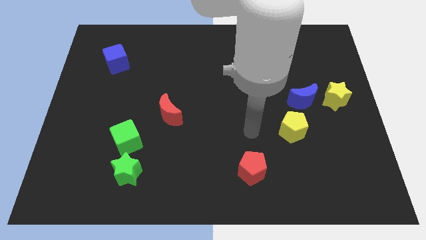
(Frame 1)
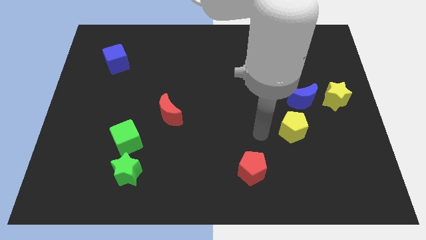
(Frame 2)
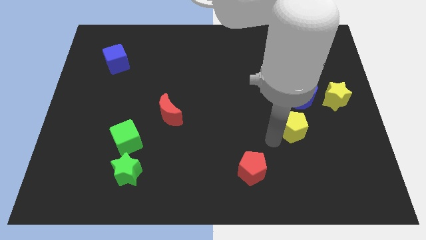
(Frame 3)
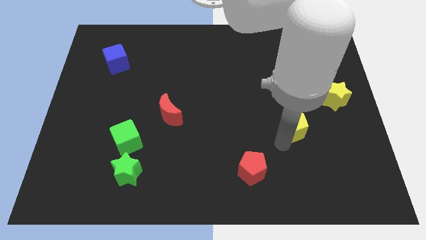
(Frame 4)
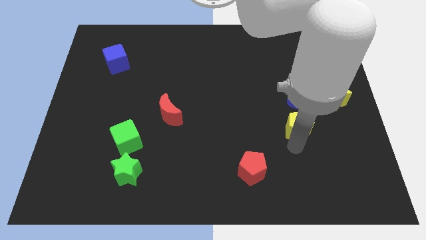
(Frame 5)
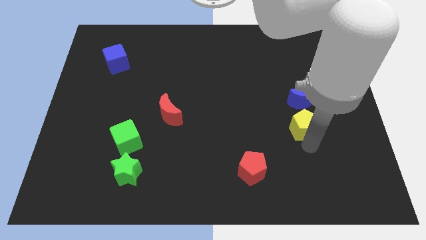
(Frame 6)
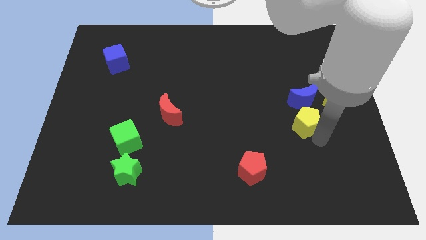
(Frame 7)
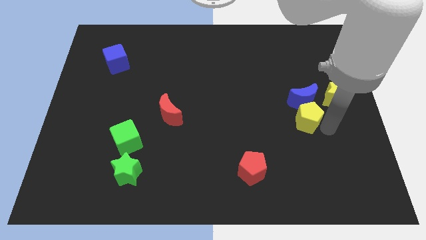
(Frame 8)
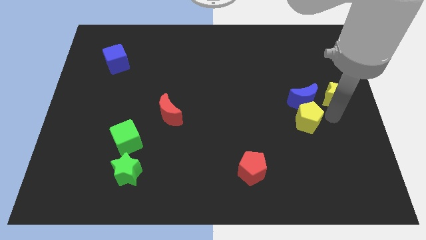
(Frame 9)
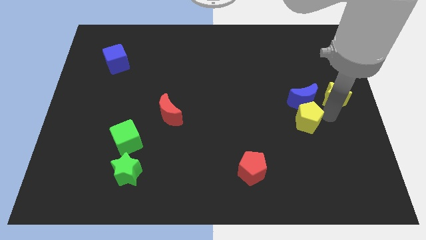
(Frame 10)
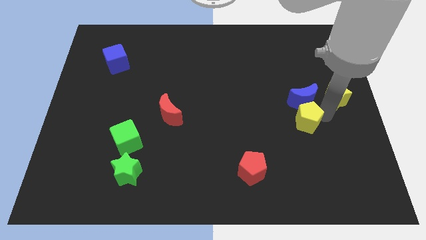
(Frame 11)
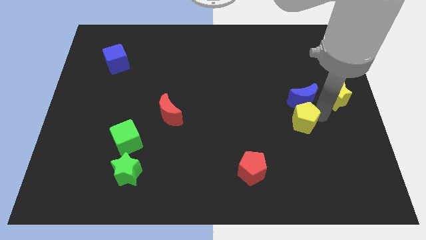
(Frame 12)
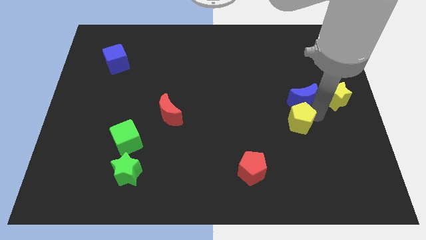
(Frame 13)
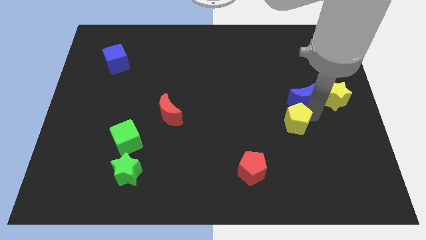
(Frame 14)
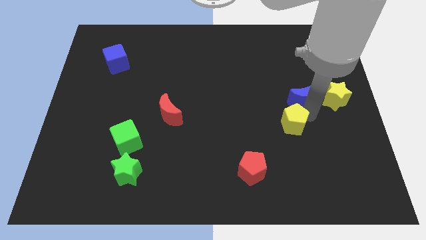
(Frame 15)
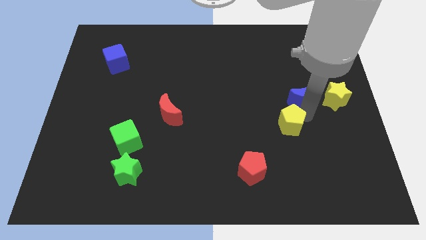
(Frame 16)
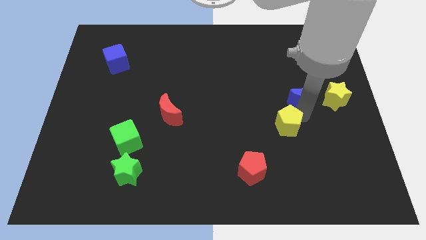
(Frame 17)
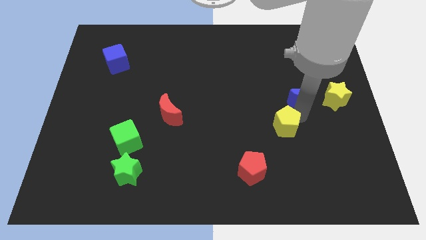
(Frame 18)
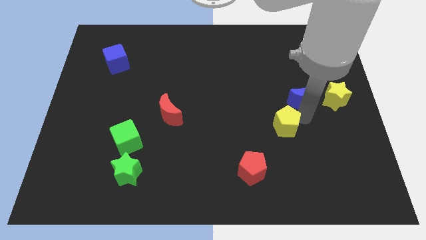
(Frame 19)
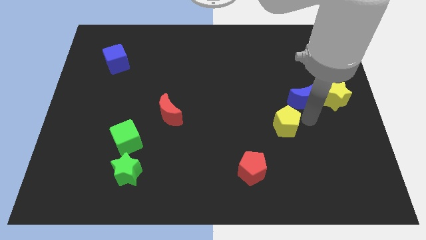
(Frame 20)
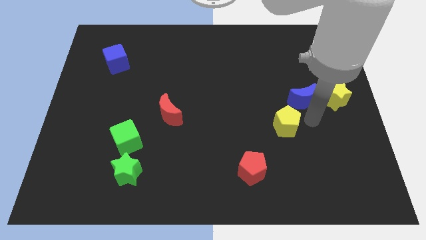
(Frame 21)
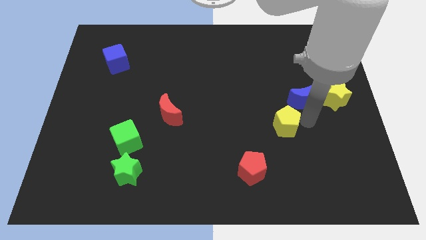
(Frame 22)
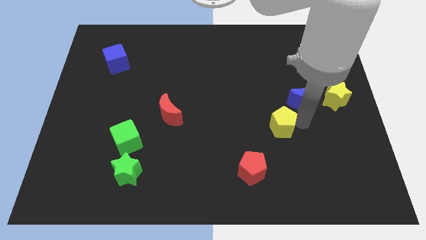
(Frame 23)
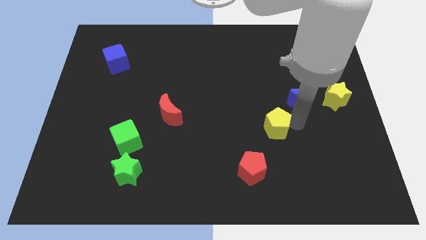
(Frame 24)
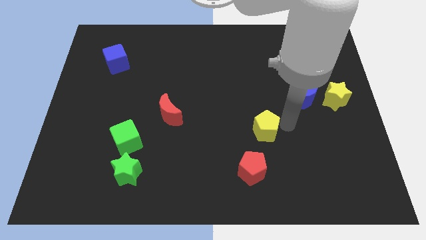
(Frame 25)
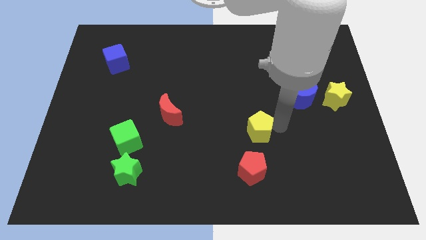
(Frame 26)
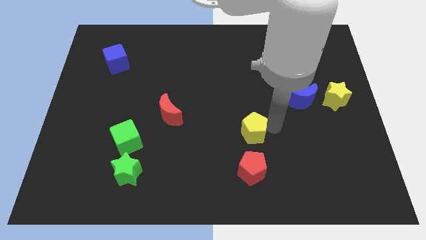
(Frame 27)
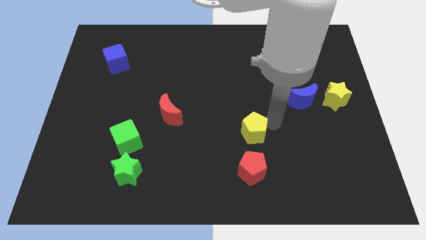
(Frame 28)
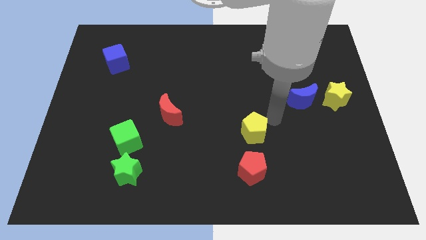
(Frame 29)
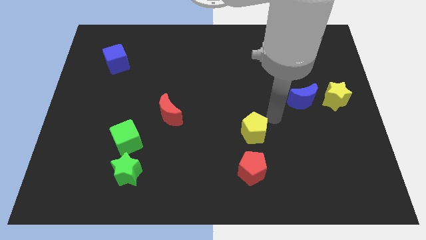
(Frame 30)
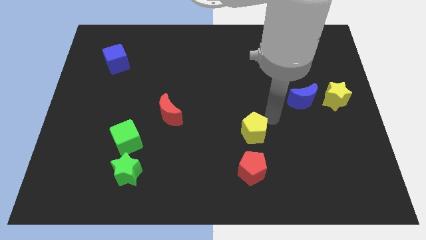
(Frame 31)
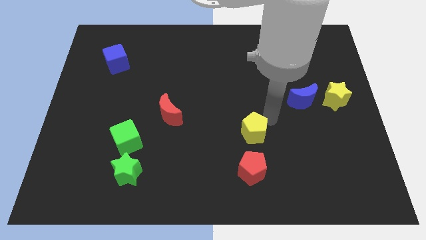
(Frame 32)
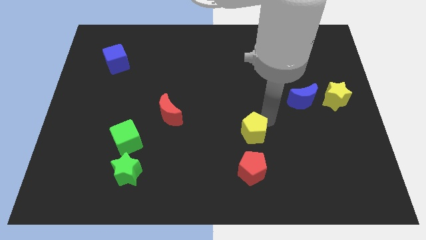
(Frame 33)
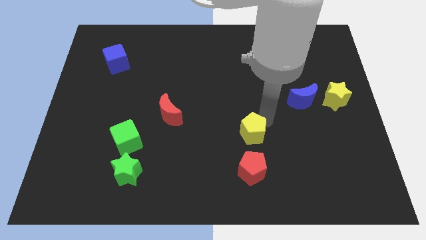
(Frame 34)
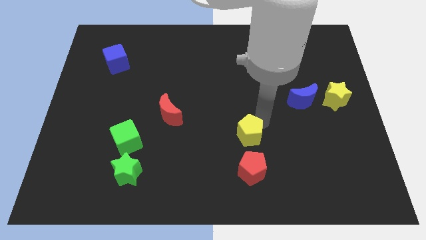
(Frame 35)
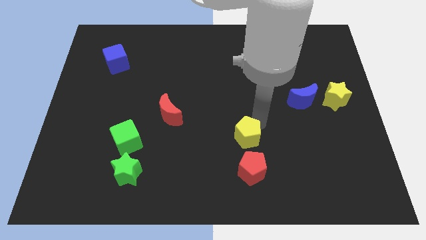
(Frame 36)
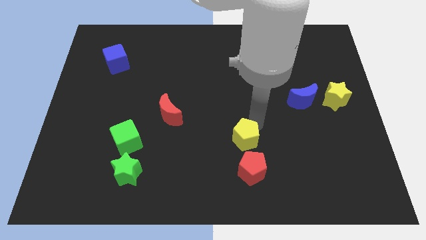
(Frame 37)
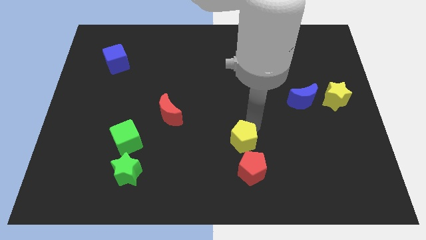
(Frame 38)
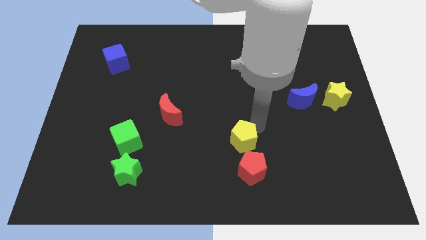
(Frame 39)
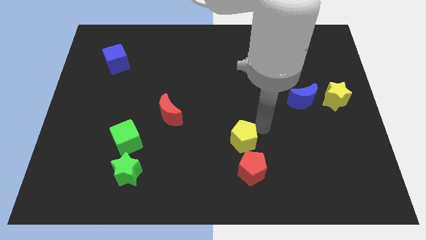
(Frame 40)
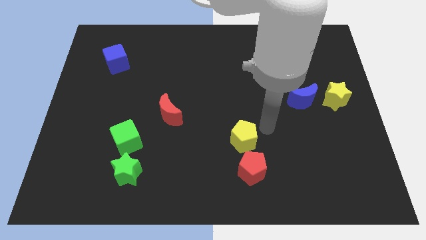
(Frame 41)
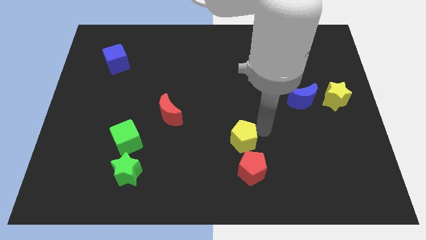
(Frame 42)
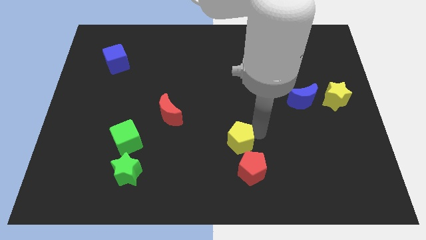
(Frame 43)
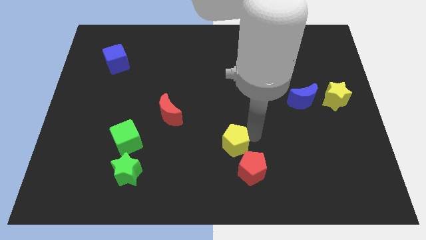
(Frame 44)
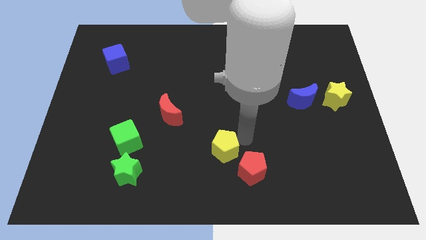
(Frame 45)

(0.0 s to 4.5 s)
push the yellow pentagon just left of the red pentagon

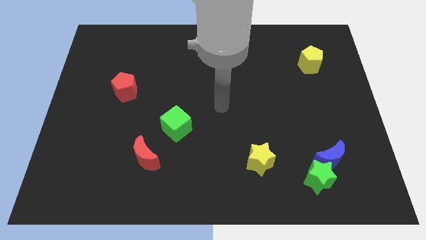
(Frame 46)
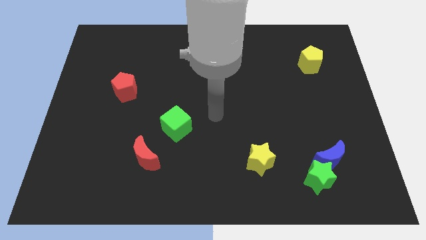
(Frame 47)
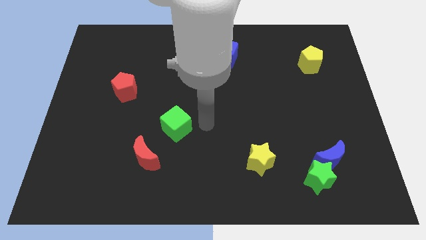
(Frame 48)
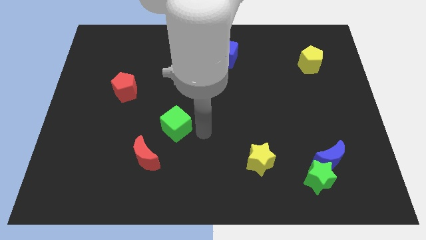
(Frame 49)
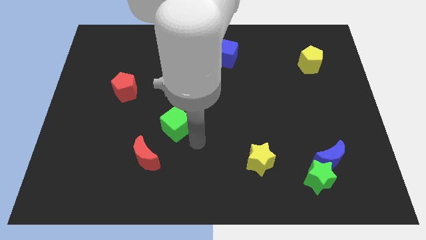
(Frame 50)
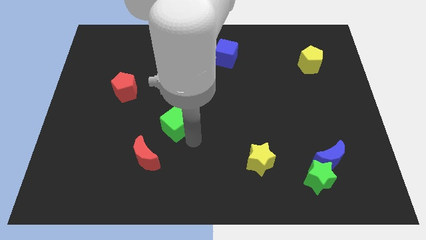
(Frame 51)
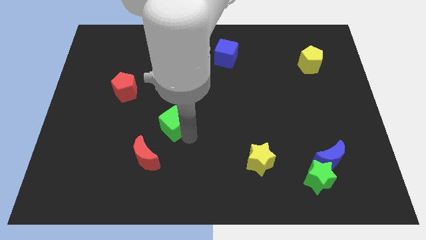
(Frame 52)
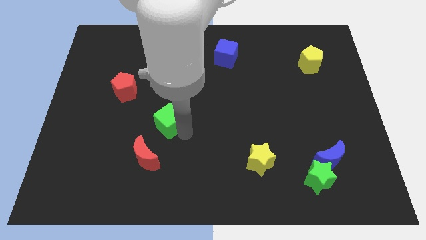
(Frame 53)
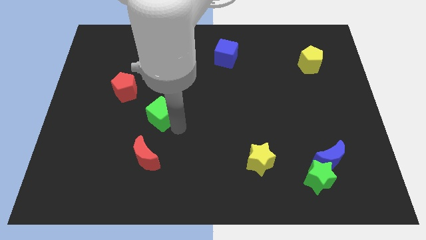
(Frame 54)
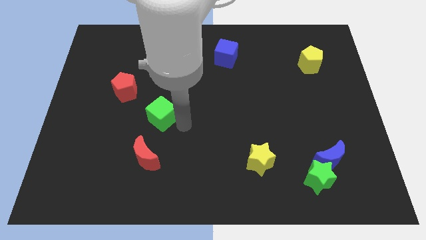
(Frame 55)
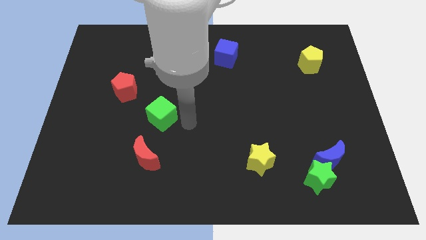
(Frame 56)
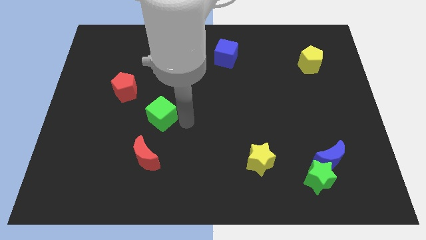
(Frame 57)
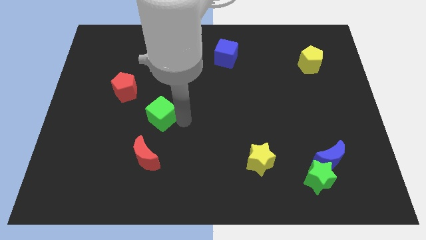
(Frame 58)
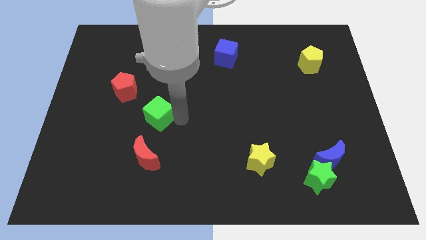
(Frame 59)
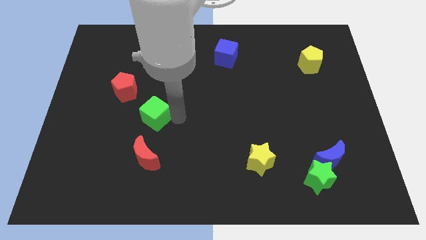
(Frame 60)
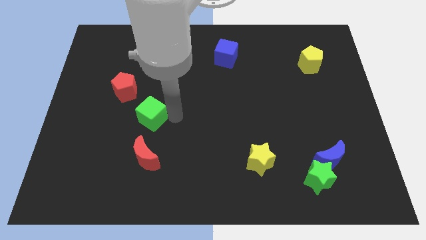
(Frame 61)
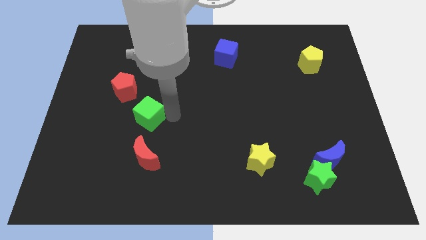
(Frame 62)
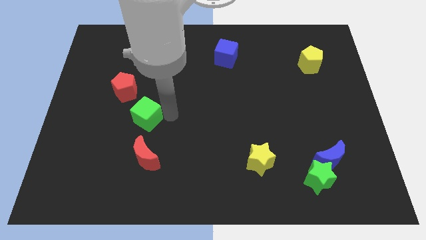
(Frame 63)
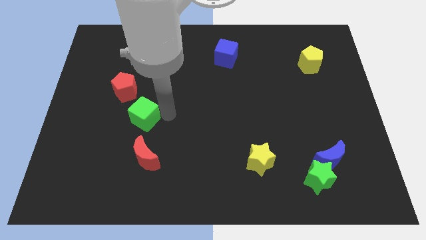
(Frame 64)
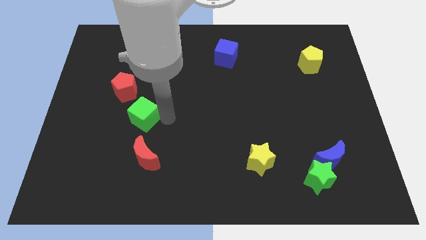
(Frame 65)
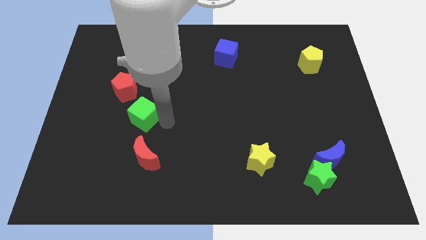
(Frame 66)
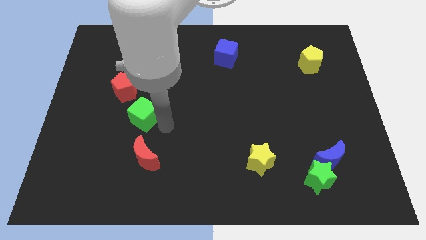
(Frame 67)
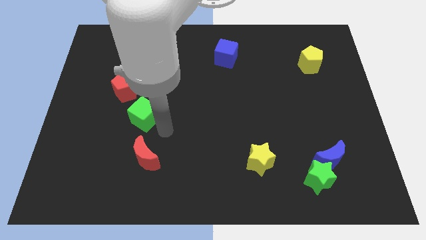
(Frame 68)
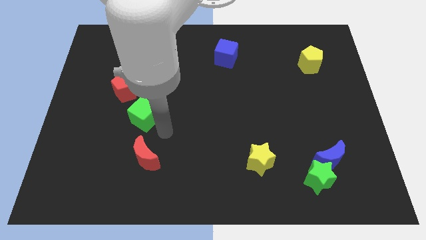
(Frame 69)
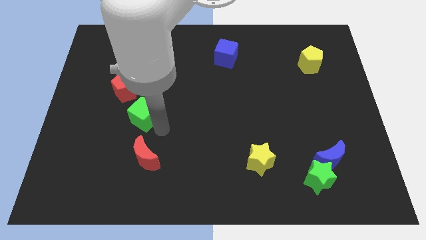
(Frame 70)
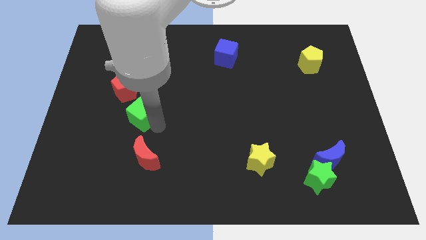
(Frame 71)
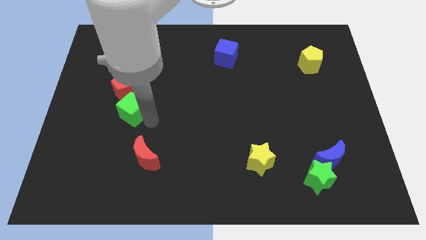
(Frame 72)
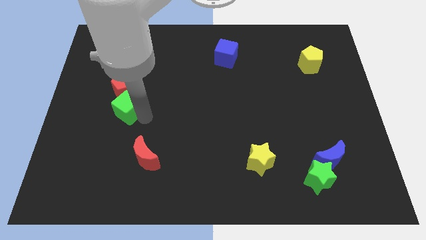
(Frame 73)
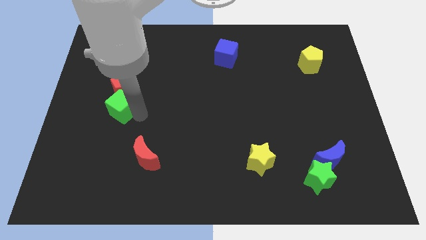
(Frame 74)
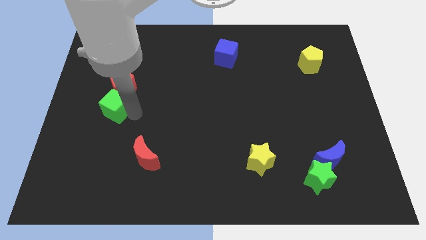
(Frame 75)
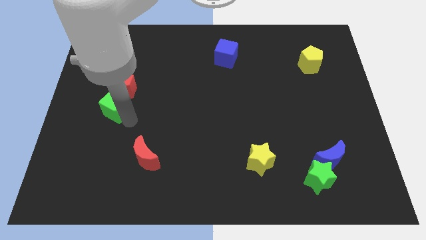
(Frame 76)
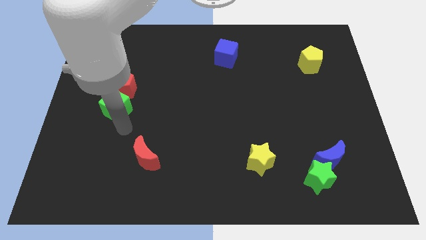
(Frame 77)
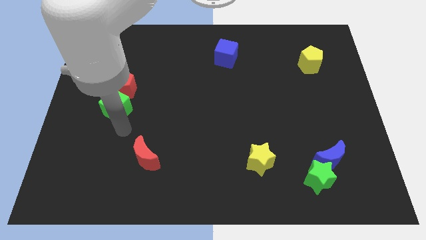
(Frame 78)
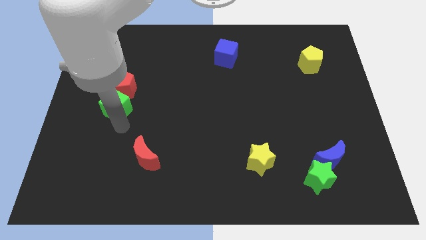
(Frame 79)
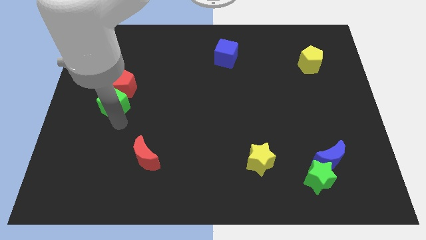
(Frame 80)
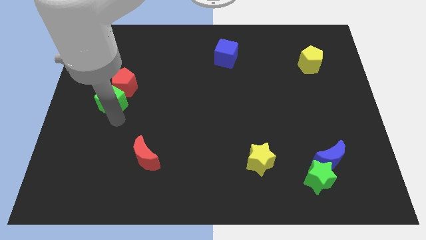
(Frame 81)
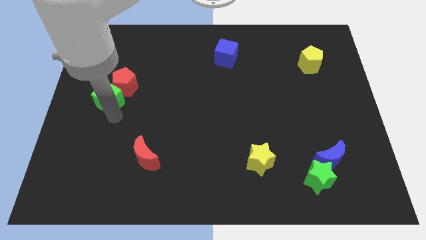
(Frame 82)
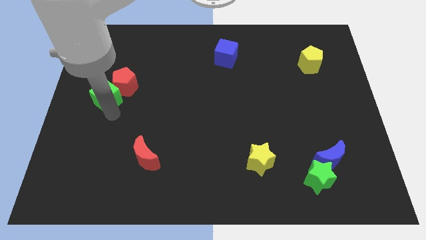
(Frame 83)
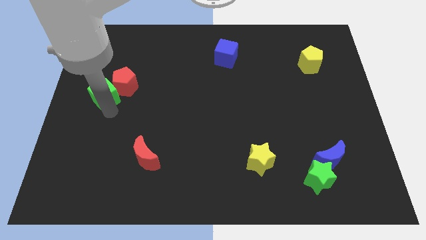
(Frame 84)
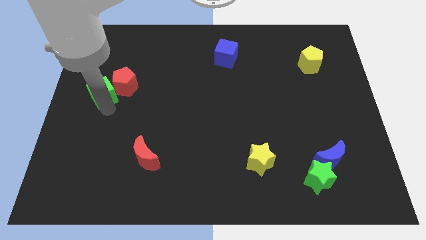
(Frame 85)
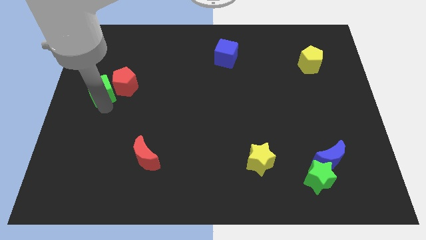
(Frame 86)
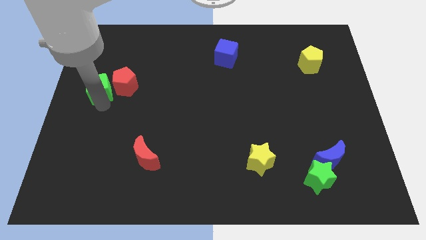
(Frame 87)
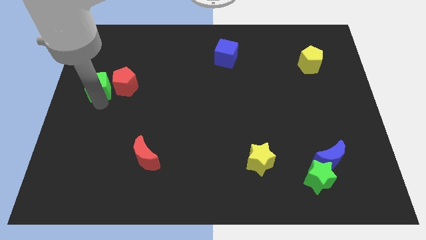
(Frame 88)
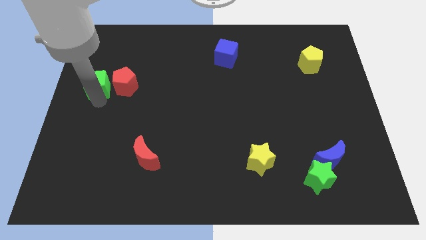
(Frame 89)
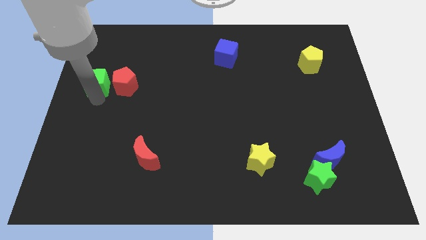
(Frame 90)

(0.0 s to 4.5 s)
push the green cube diagonally up and to the left of the red pentagon
